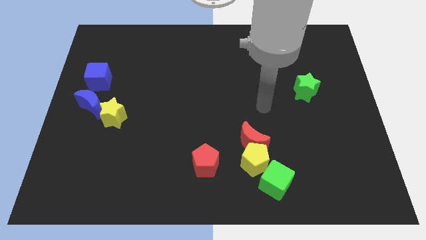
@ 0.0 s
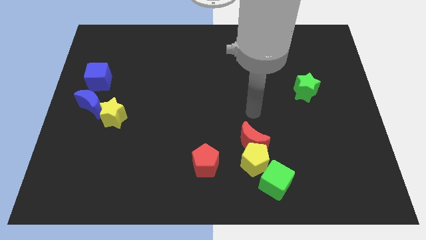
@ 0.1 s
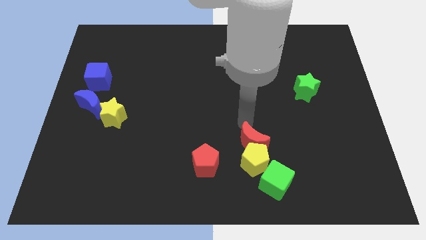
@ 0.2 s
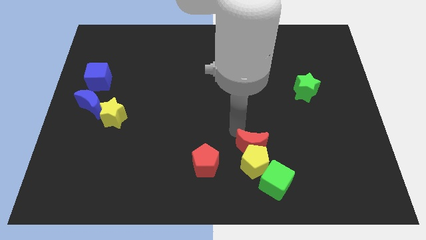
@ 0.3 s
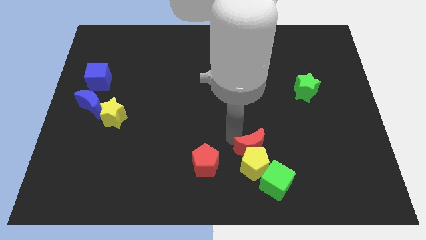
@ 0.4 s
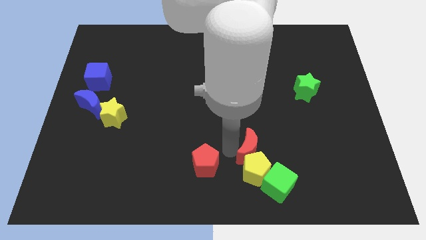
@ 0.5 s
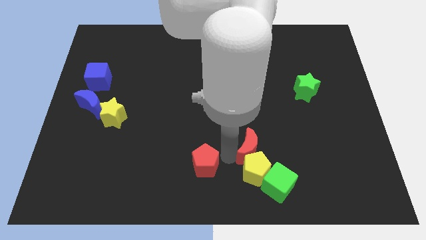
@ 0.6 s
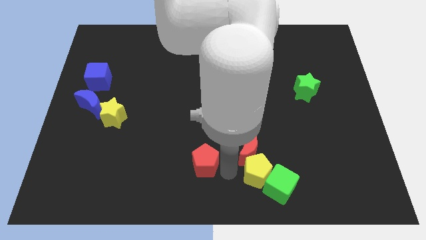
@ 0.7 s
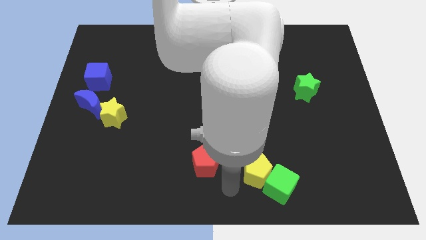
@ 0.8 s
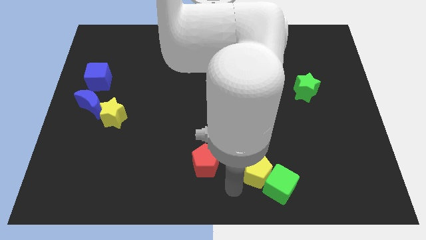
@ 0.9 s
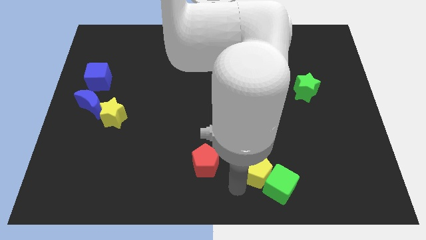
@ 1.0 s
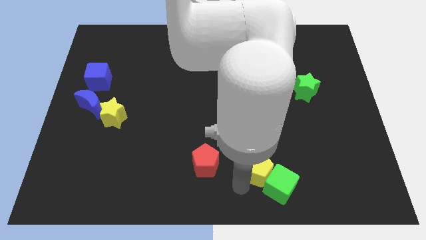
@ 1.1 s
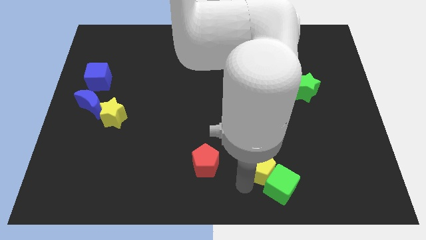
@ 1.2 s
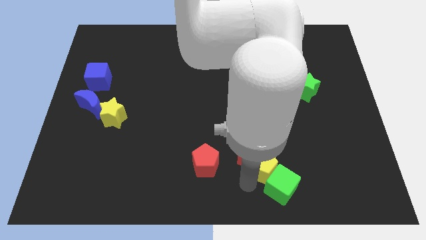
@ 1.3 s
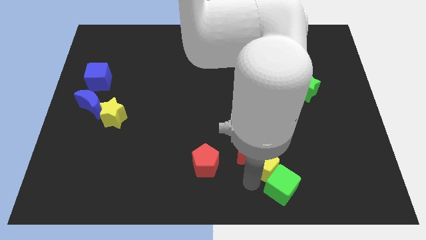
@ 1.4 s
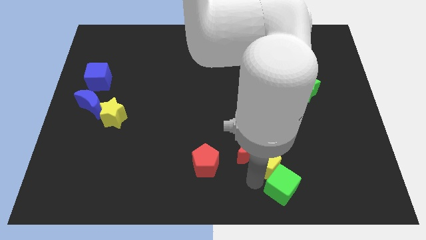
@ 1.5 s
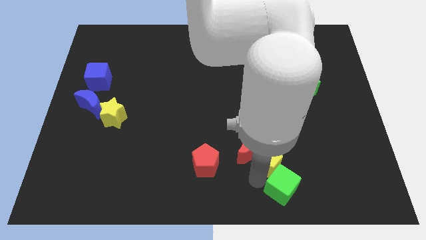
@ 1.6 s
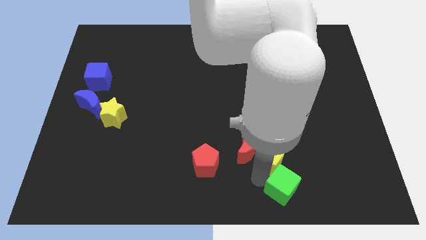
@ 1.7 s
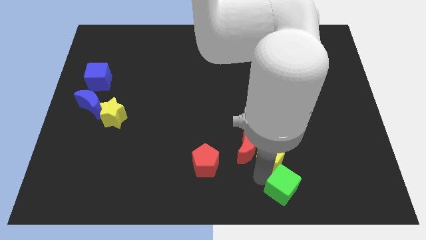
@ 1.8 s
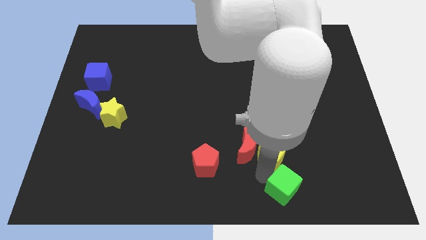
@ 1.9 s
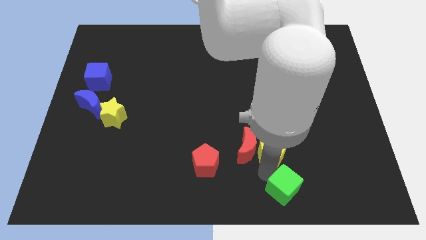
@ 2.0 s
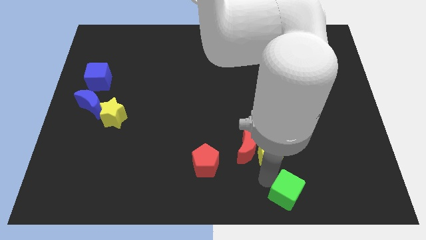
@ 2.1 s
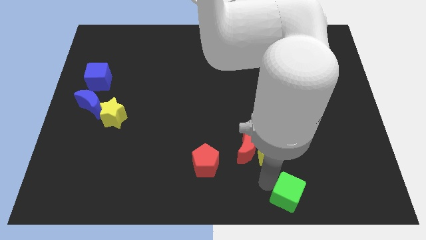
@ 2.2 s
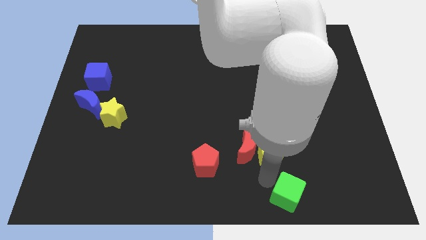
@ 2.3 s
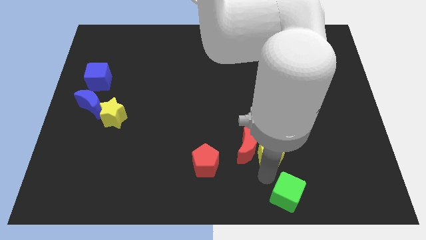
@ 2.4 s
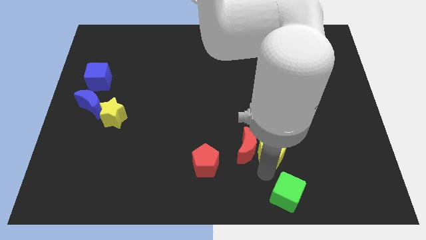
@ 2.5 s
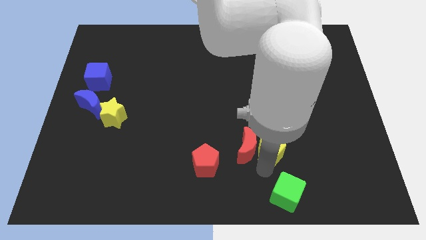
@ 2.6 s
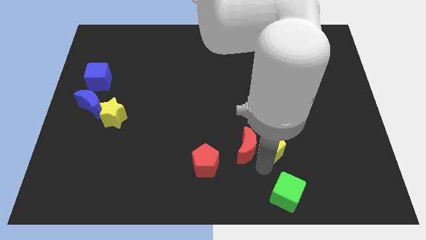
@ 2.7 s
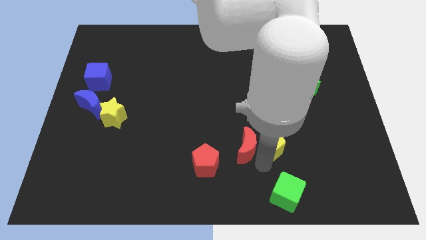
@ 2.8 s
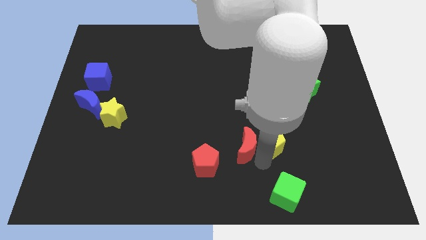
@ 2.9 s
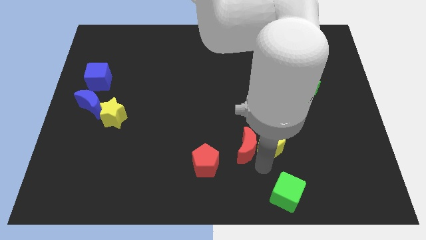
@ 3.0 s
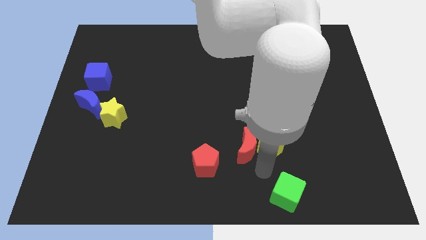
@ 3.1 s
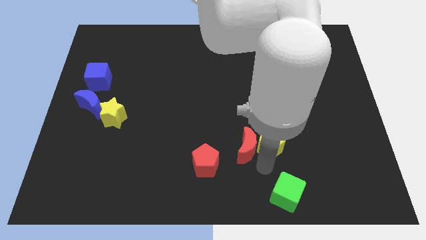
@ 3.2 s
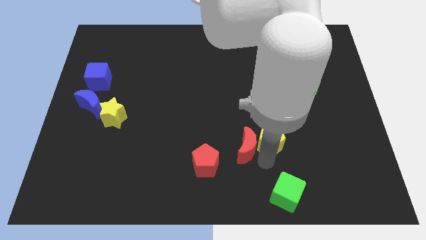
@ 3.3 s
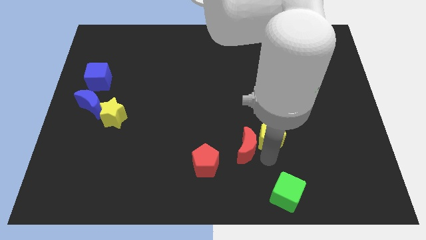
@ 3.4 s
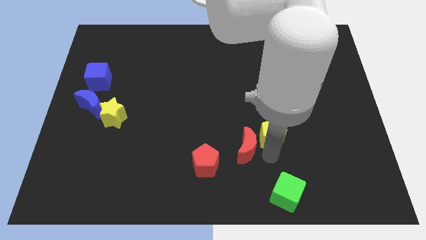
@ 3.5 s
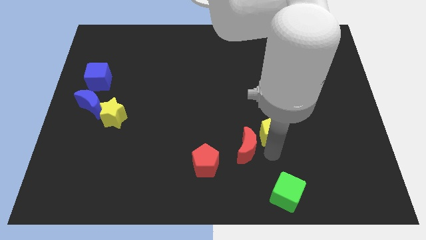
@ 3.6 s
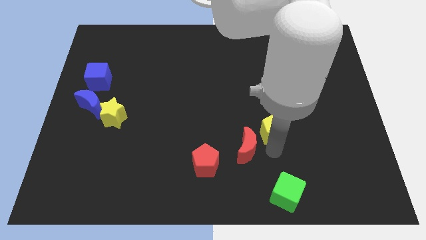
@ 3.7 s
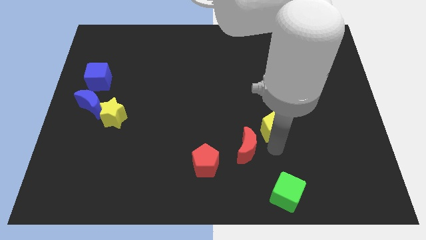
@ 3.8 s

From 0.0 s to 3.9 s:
slightly push the yellow pentagon upwards

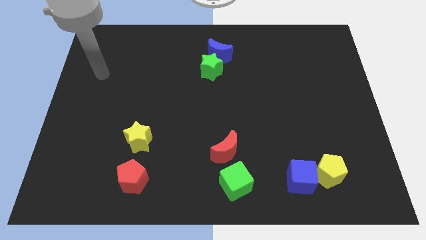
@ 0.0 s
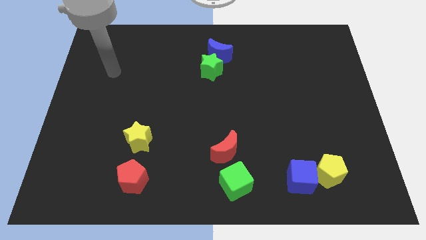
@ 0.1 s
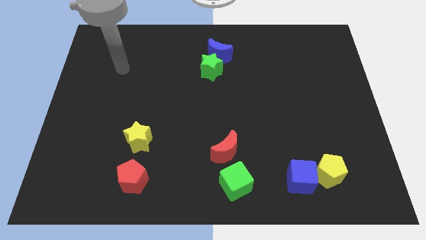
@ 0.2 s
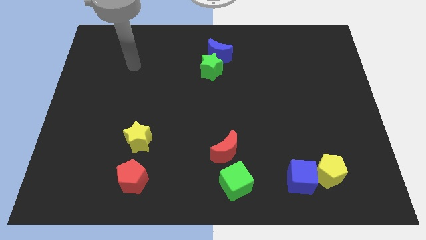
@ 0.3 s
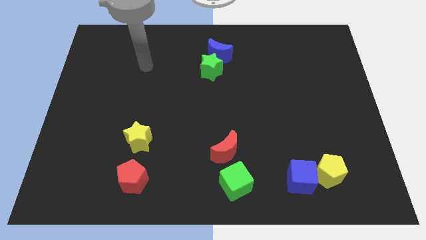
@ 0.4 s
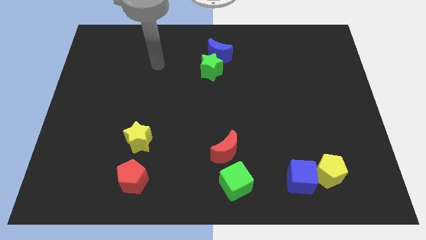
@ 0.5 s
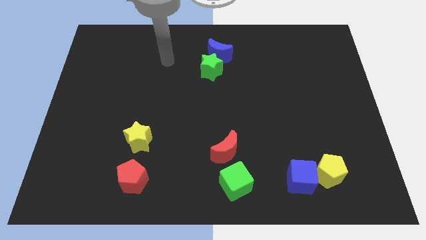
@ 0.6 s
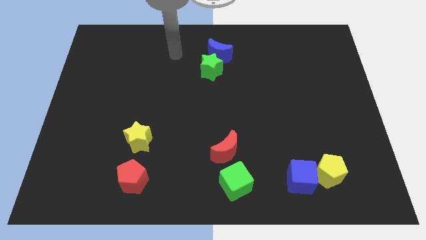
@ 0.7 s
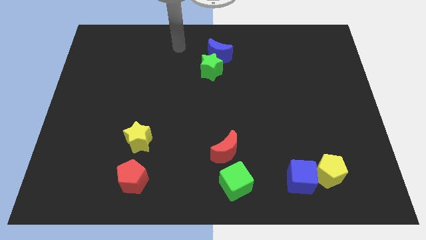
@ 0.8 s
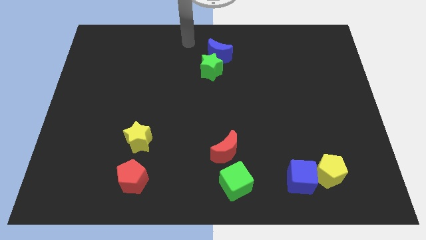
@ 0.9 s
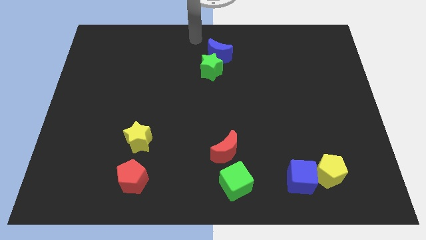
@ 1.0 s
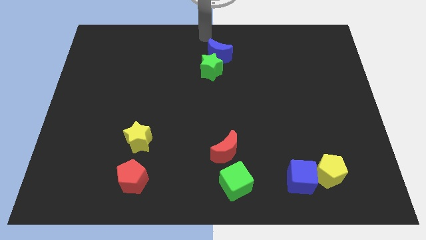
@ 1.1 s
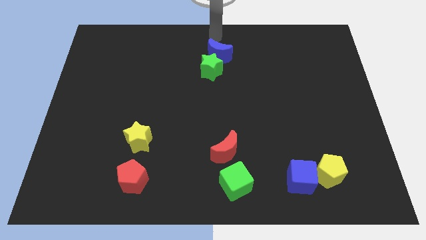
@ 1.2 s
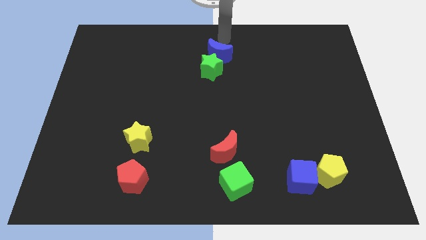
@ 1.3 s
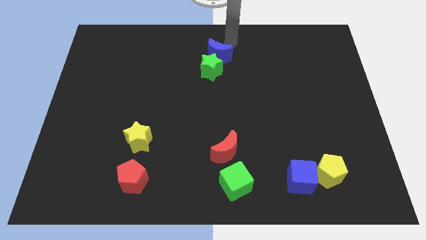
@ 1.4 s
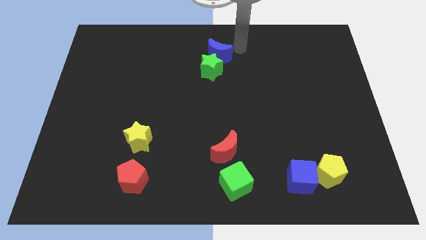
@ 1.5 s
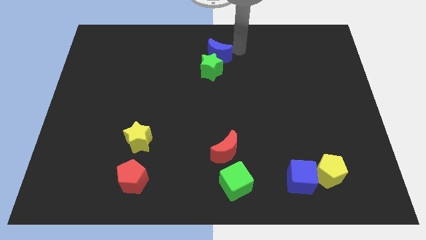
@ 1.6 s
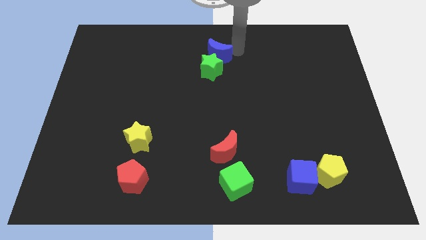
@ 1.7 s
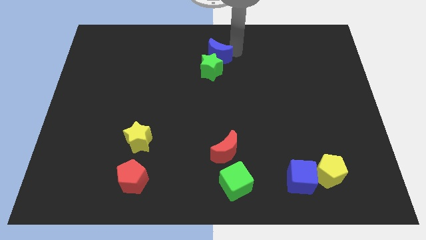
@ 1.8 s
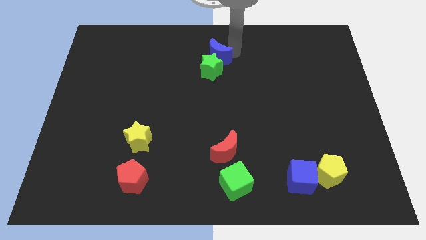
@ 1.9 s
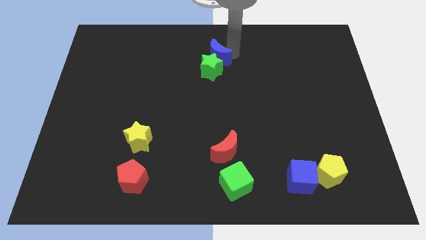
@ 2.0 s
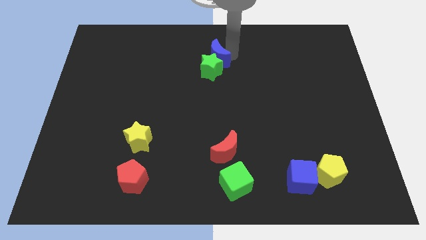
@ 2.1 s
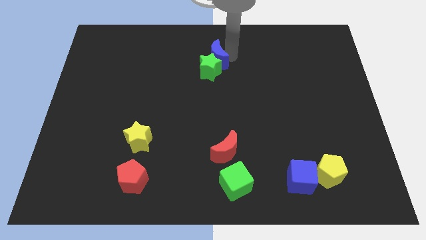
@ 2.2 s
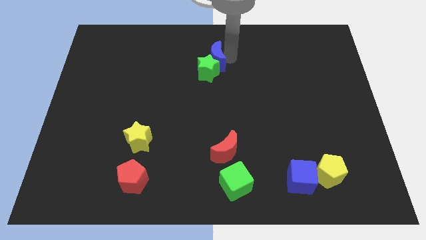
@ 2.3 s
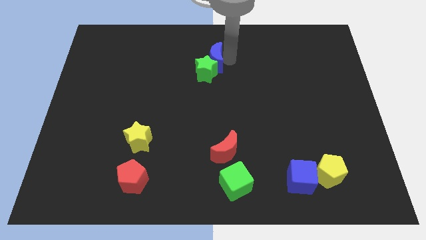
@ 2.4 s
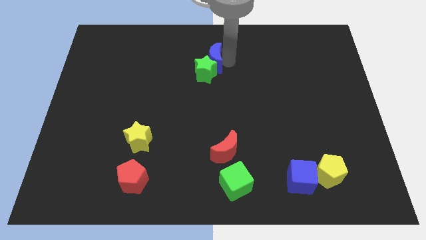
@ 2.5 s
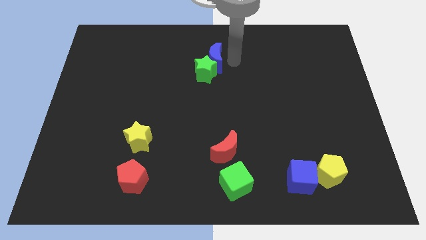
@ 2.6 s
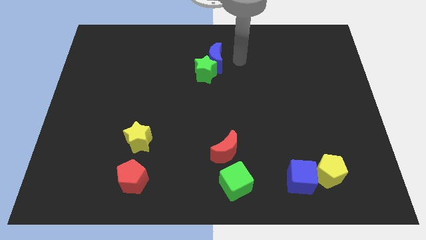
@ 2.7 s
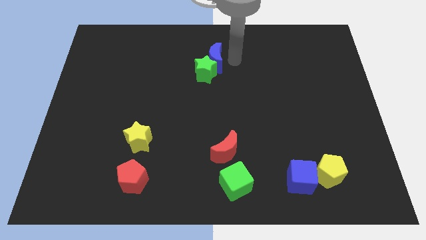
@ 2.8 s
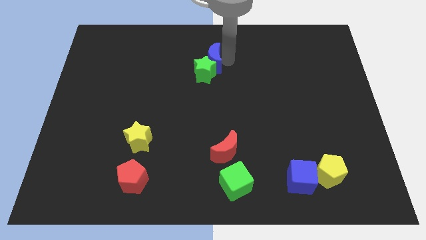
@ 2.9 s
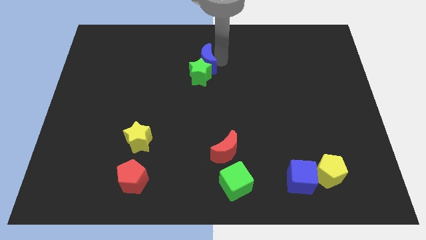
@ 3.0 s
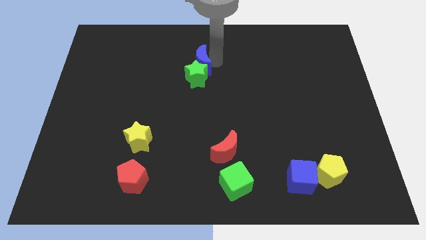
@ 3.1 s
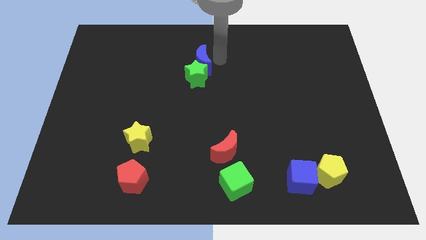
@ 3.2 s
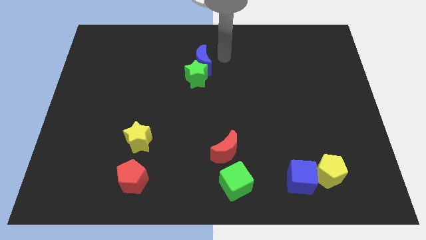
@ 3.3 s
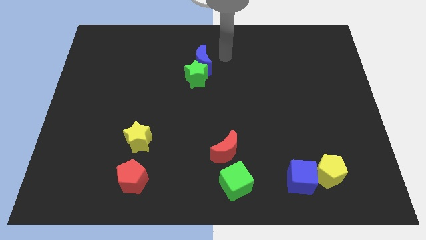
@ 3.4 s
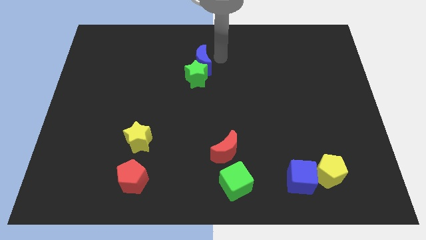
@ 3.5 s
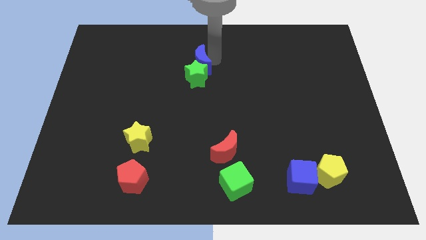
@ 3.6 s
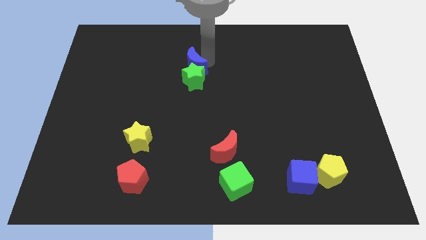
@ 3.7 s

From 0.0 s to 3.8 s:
slide the blue moon slightly diagonally down and to the left

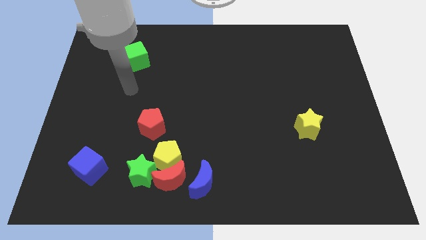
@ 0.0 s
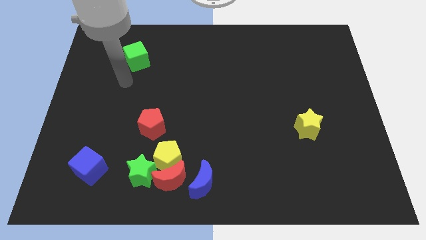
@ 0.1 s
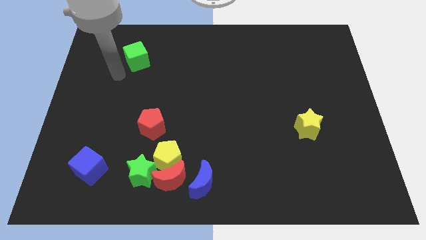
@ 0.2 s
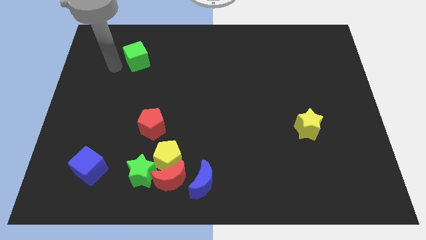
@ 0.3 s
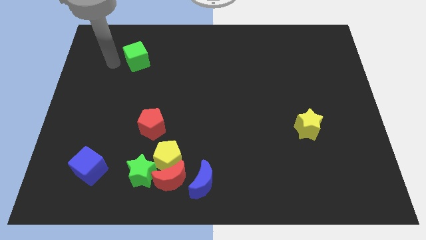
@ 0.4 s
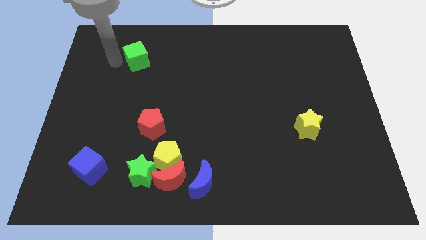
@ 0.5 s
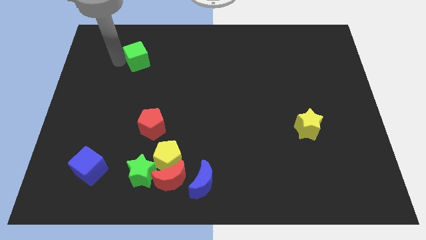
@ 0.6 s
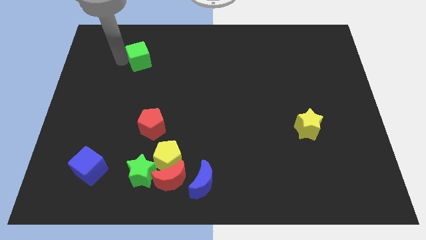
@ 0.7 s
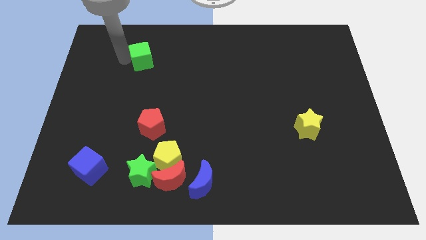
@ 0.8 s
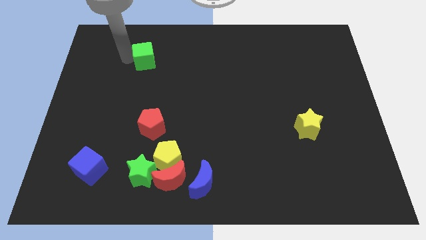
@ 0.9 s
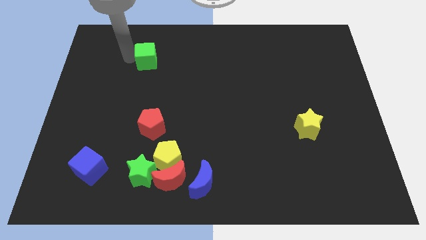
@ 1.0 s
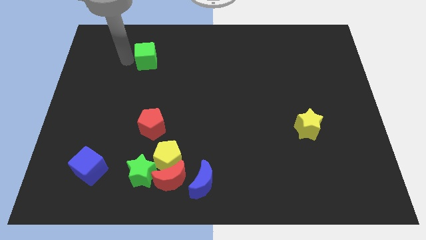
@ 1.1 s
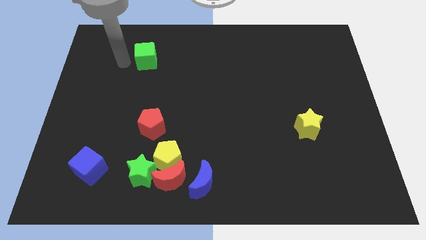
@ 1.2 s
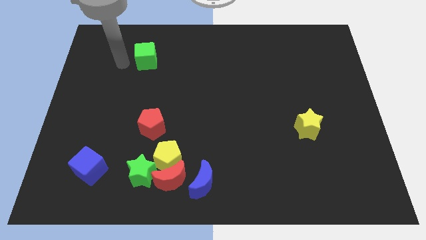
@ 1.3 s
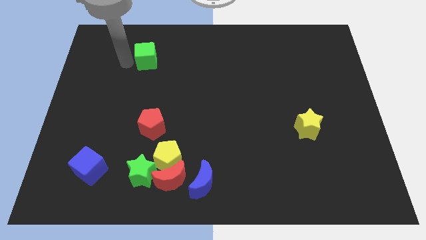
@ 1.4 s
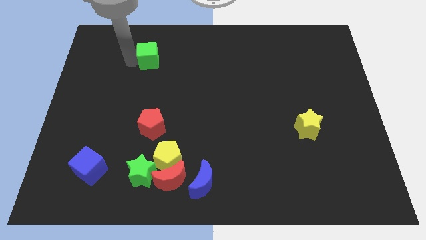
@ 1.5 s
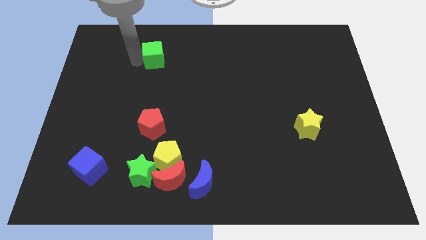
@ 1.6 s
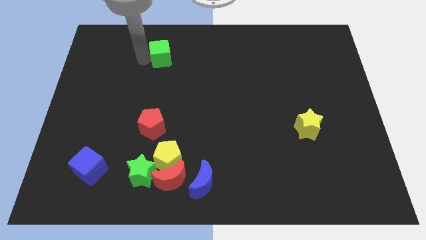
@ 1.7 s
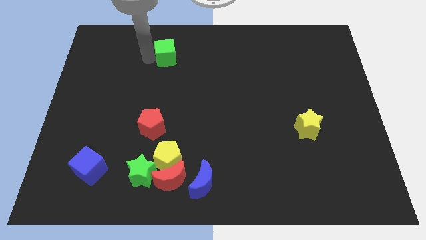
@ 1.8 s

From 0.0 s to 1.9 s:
move the green cube to the right a little bit
